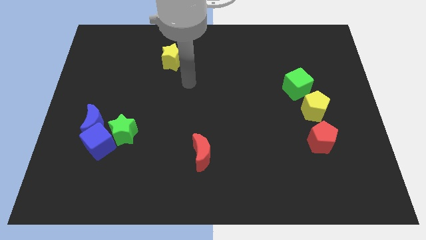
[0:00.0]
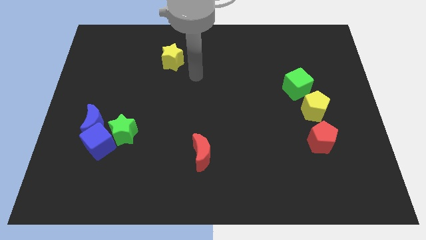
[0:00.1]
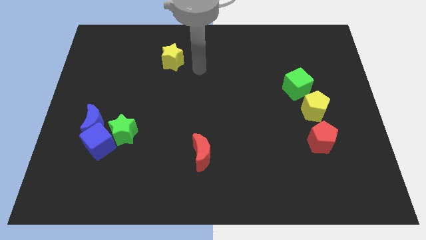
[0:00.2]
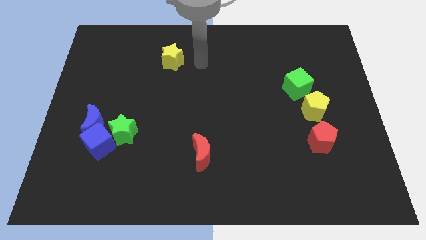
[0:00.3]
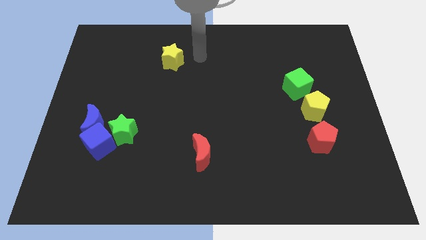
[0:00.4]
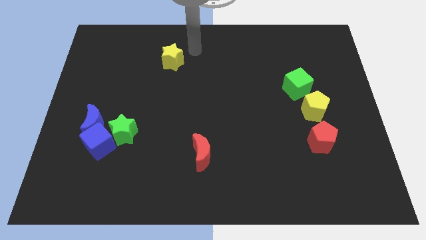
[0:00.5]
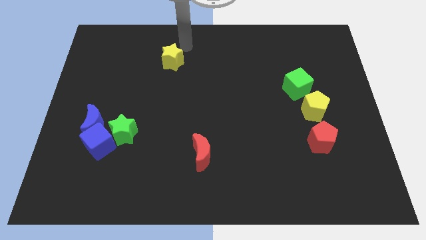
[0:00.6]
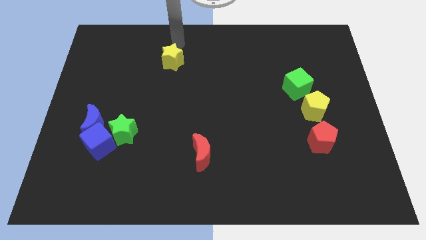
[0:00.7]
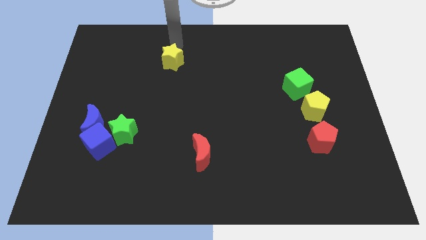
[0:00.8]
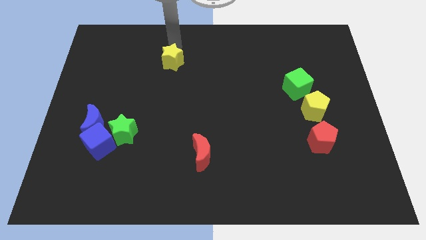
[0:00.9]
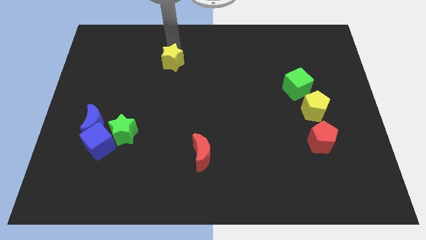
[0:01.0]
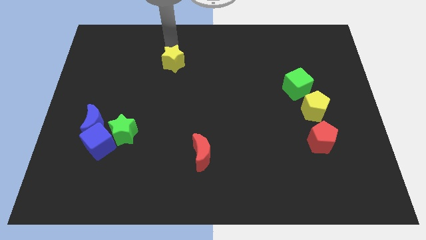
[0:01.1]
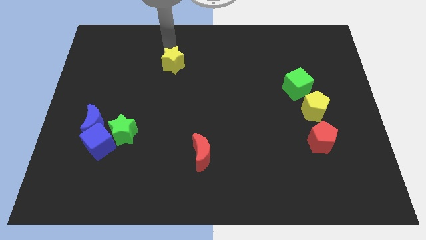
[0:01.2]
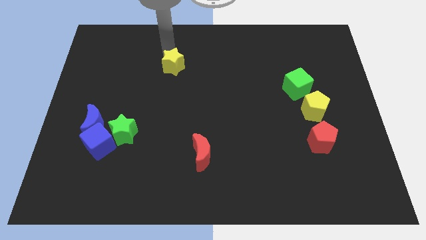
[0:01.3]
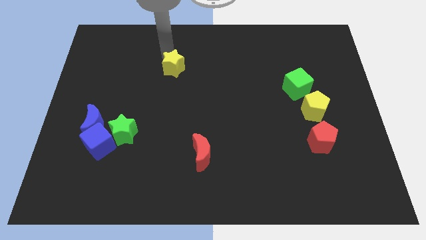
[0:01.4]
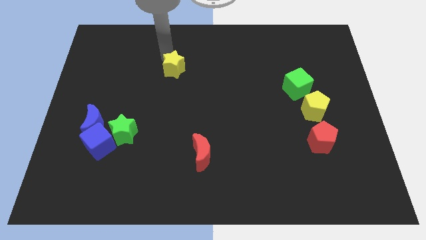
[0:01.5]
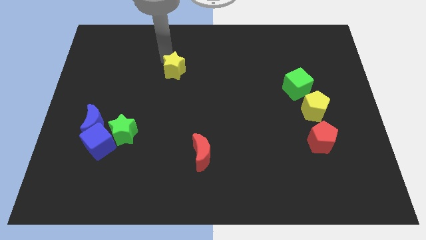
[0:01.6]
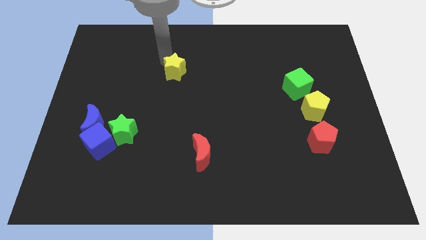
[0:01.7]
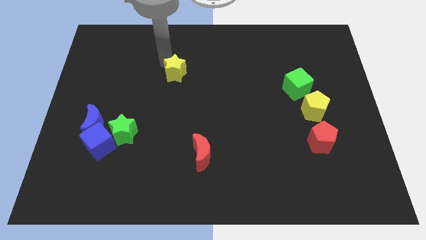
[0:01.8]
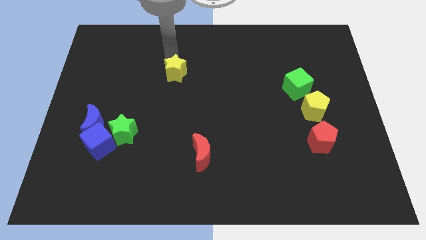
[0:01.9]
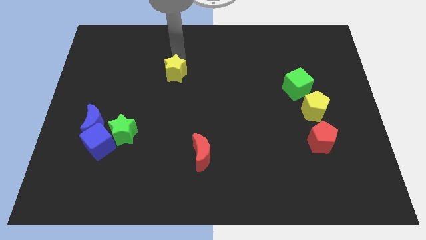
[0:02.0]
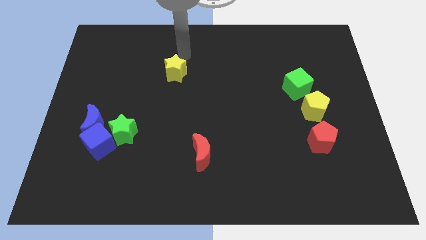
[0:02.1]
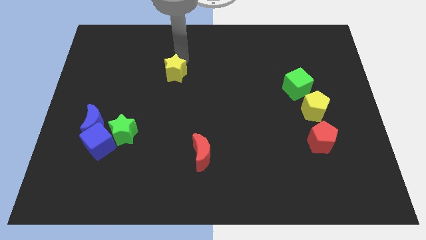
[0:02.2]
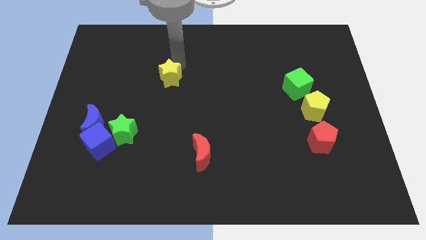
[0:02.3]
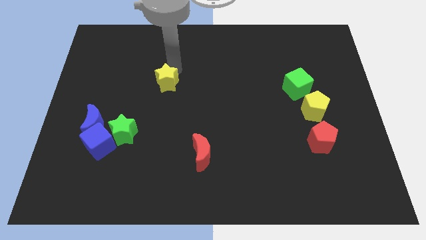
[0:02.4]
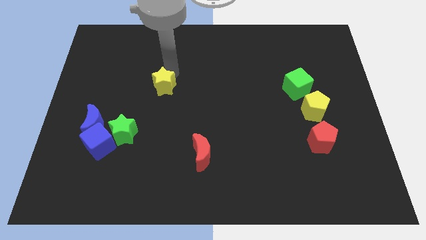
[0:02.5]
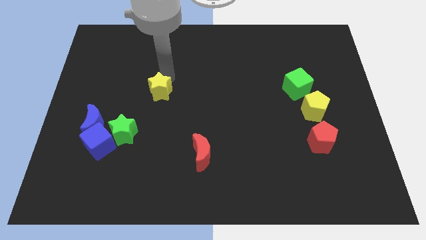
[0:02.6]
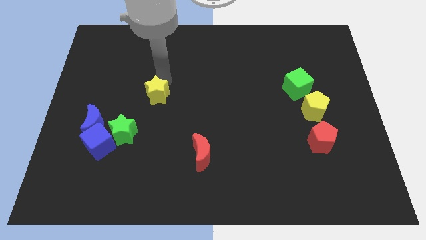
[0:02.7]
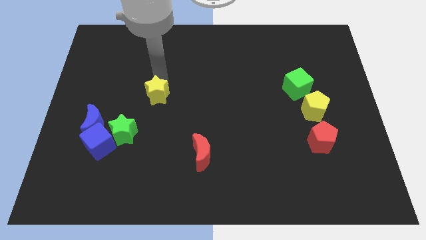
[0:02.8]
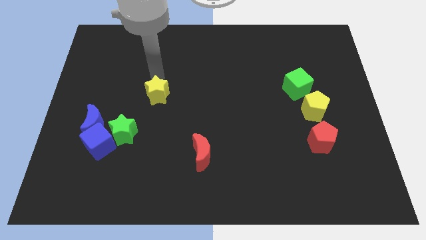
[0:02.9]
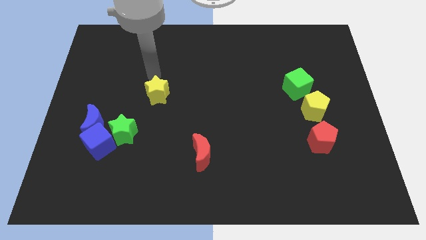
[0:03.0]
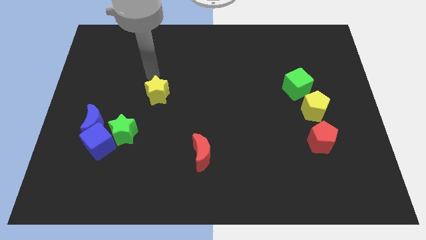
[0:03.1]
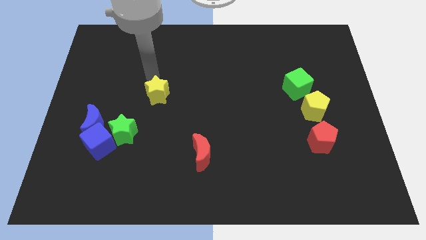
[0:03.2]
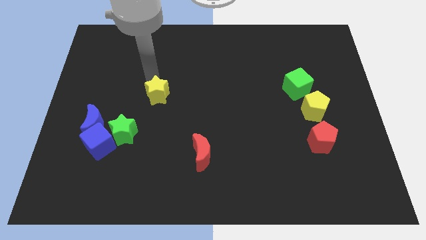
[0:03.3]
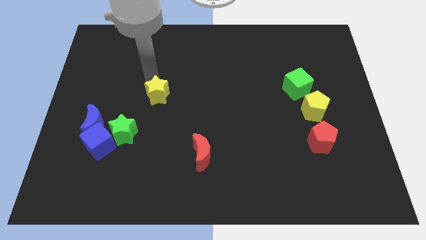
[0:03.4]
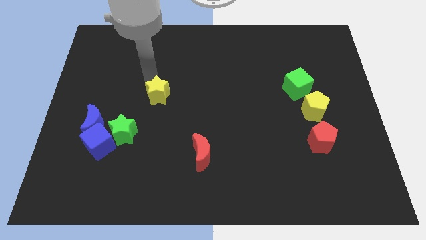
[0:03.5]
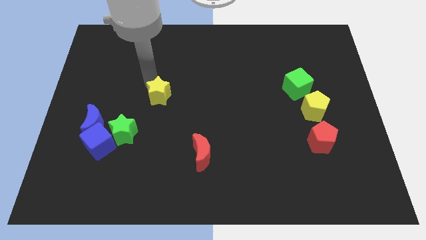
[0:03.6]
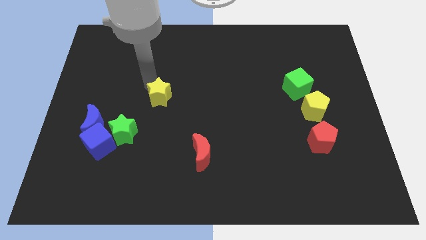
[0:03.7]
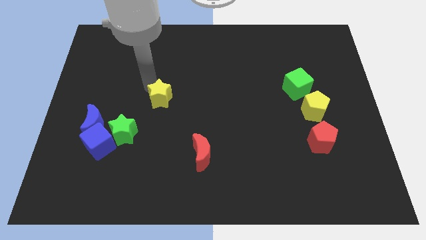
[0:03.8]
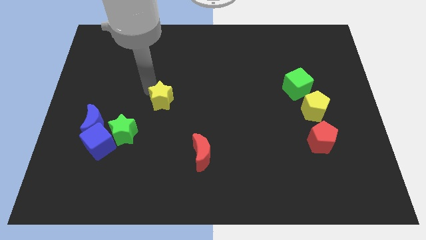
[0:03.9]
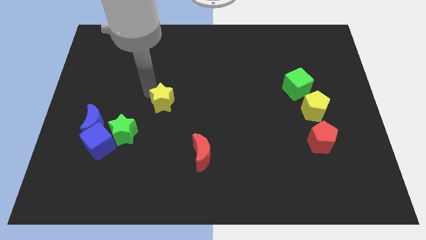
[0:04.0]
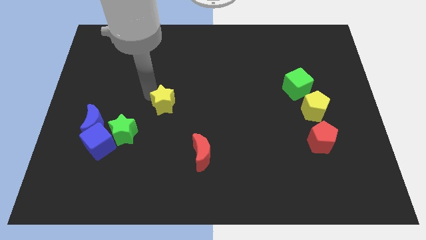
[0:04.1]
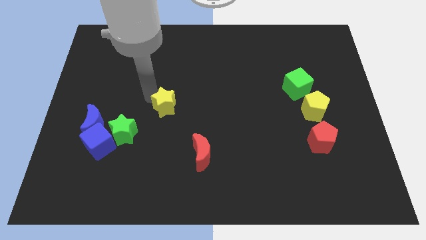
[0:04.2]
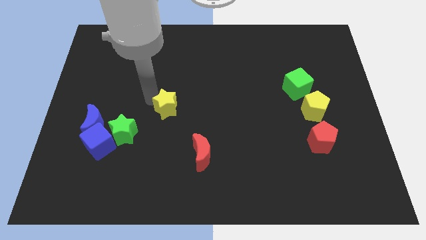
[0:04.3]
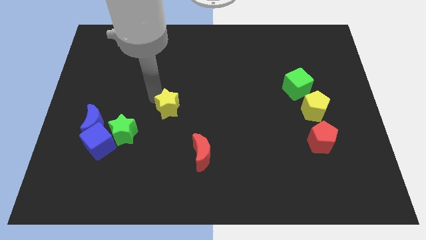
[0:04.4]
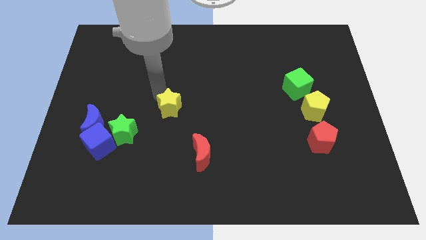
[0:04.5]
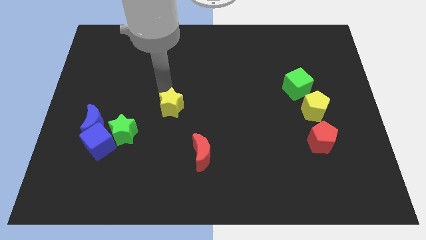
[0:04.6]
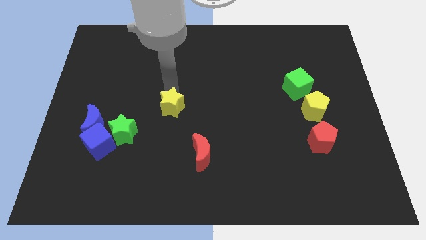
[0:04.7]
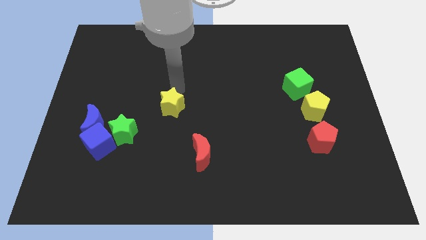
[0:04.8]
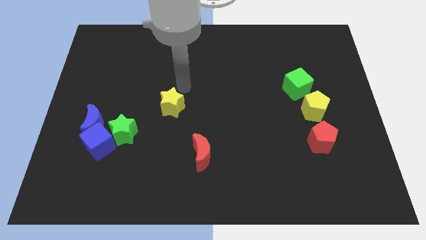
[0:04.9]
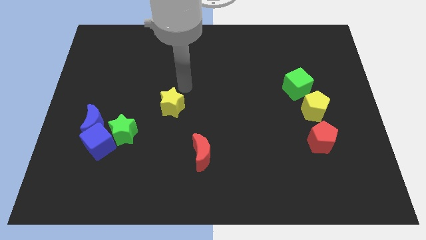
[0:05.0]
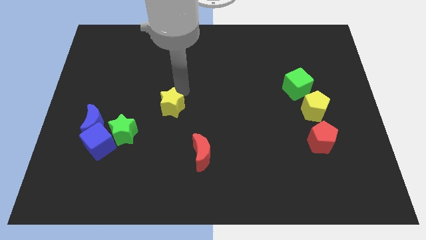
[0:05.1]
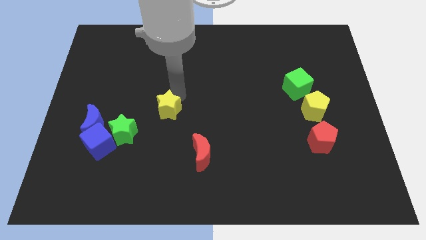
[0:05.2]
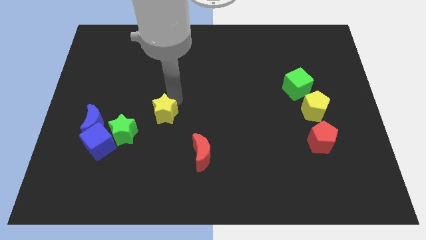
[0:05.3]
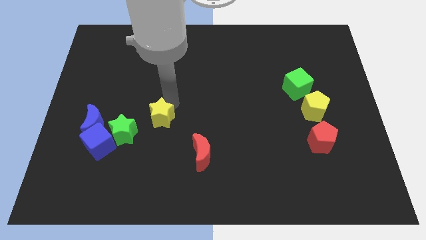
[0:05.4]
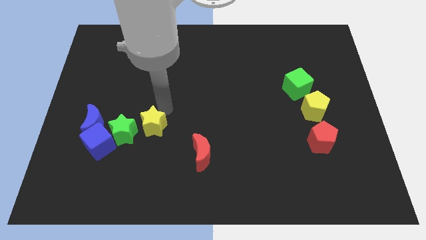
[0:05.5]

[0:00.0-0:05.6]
slide the yellow star downwards

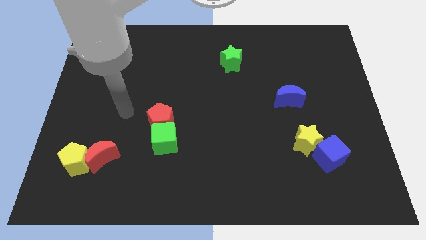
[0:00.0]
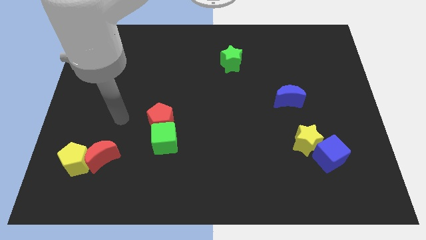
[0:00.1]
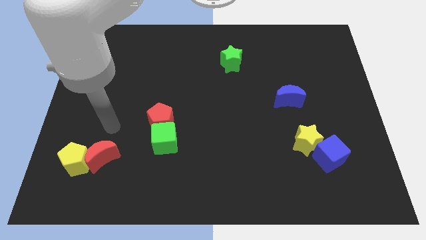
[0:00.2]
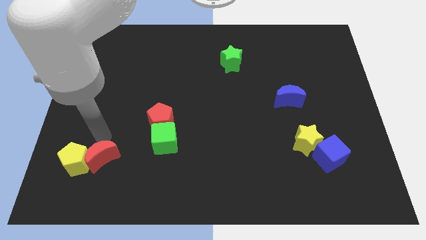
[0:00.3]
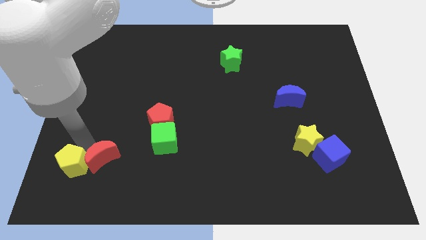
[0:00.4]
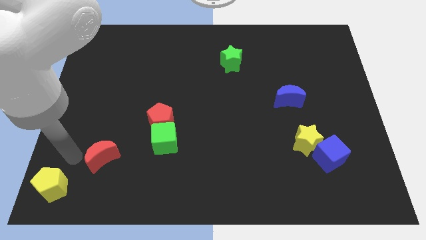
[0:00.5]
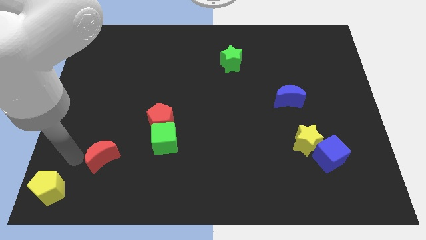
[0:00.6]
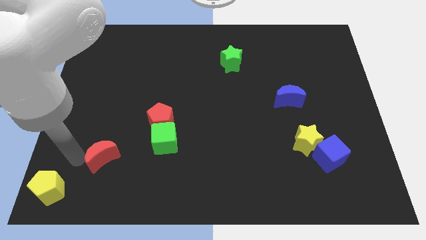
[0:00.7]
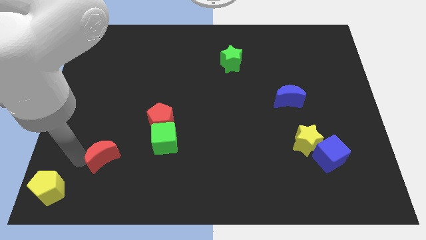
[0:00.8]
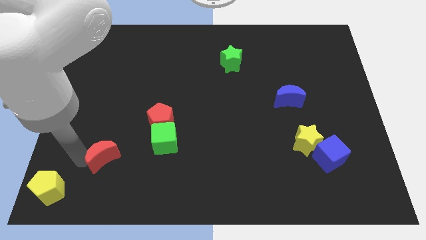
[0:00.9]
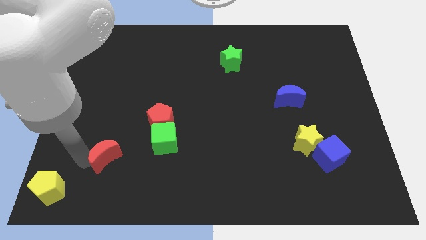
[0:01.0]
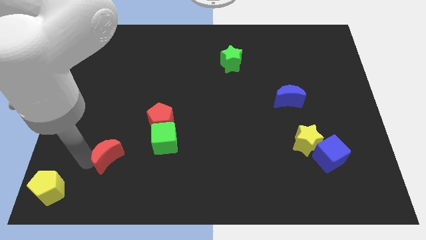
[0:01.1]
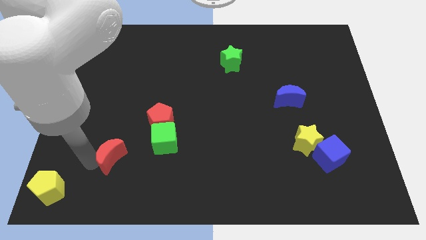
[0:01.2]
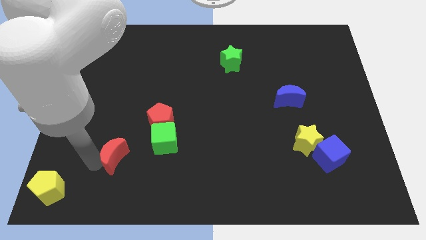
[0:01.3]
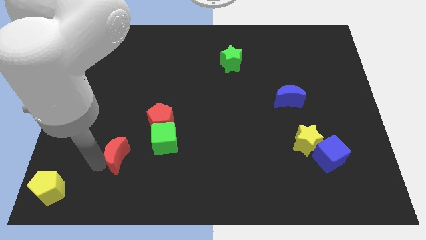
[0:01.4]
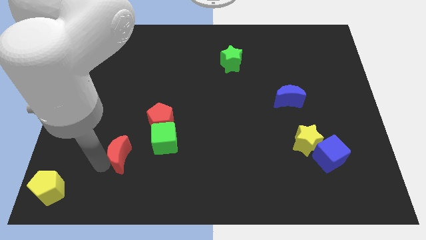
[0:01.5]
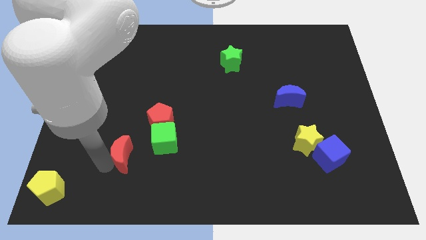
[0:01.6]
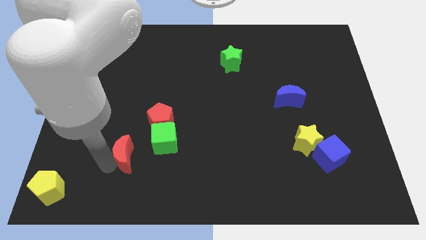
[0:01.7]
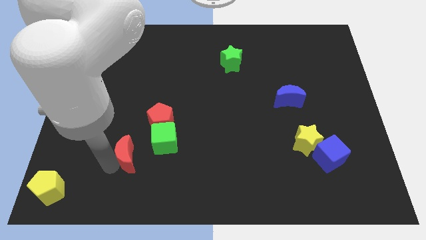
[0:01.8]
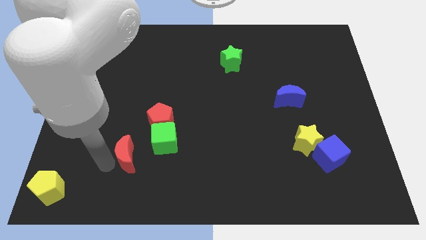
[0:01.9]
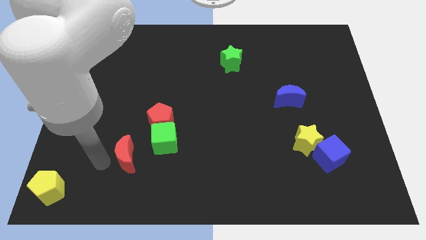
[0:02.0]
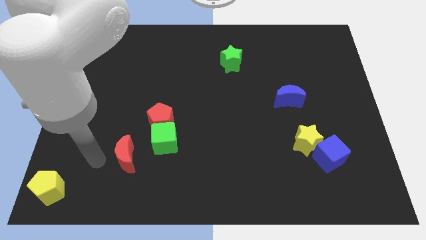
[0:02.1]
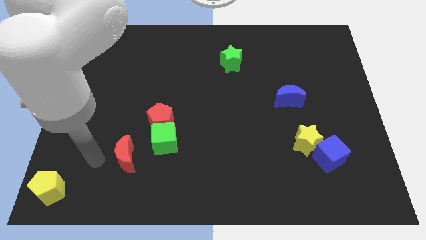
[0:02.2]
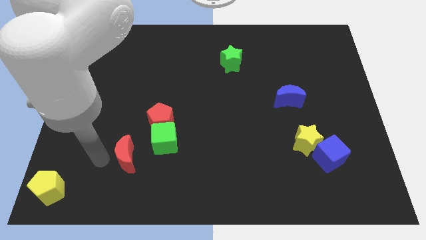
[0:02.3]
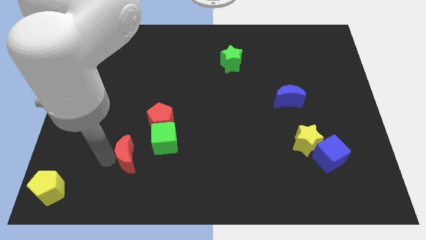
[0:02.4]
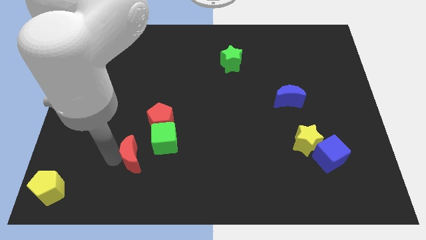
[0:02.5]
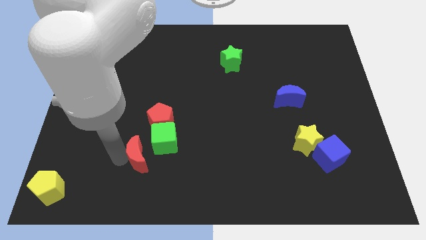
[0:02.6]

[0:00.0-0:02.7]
push the red moon right a bit

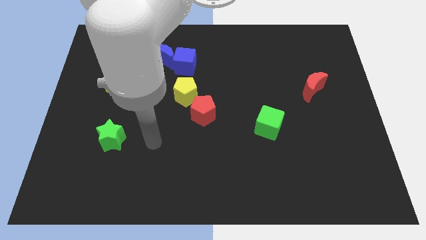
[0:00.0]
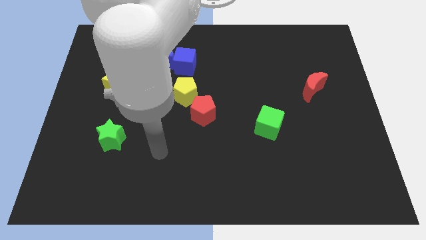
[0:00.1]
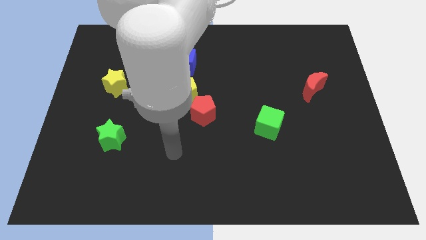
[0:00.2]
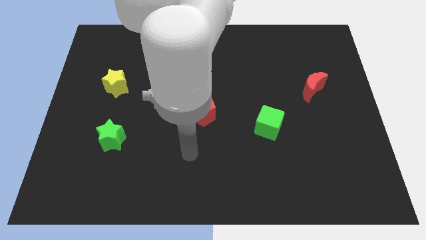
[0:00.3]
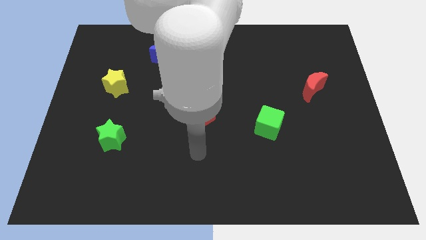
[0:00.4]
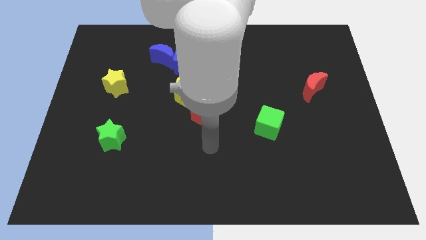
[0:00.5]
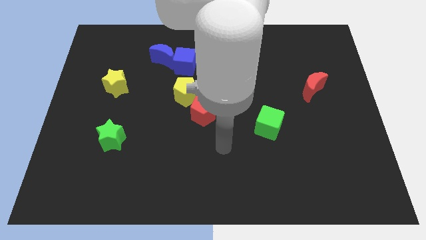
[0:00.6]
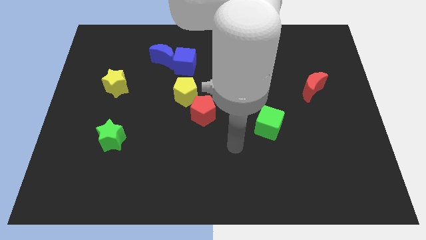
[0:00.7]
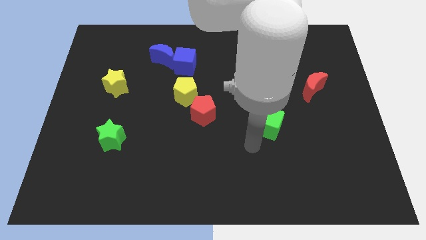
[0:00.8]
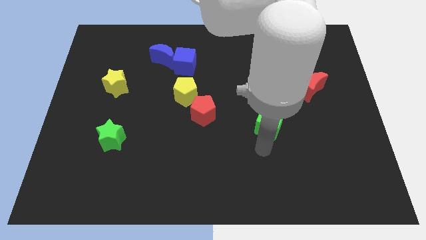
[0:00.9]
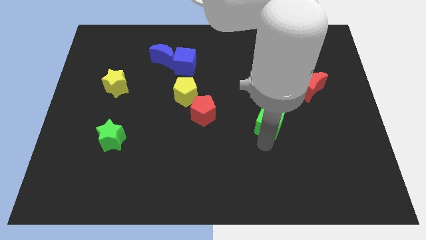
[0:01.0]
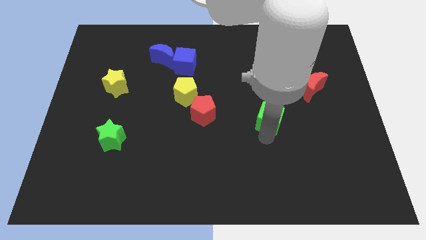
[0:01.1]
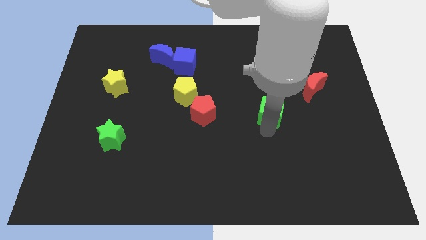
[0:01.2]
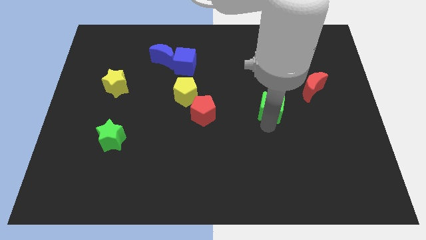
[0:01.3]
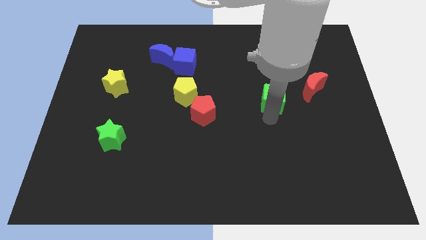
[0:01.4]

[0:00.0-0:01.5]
slide the green cube up a little
